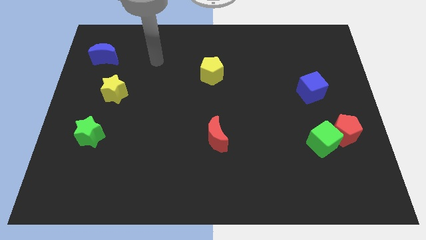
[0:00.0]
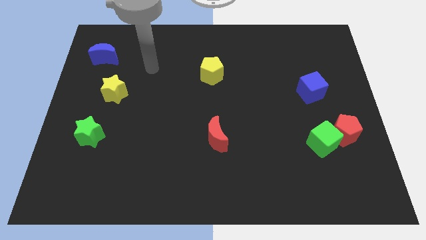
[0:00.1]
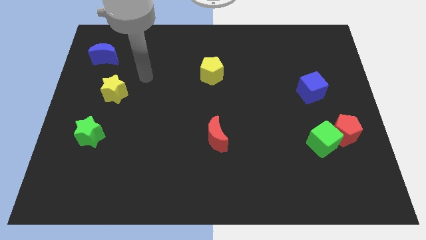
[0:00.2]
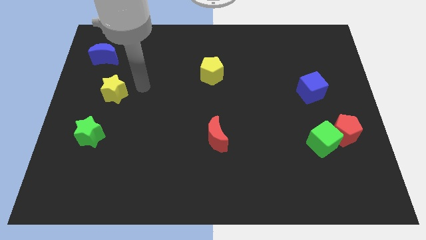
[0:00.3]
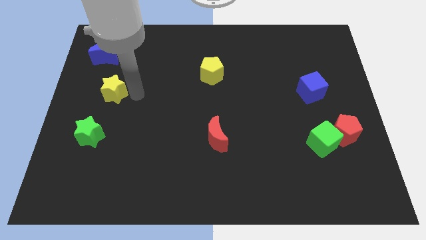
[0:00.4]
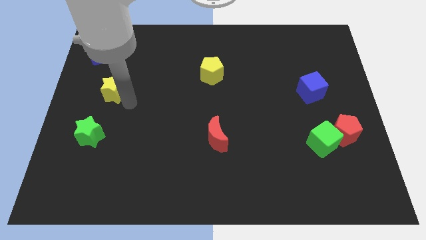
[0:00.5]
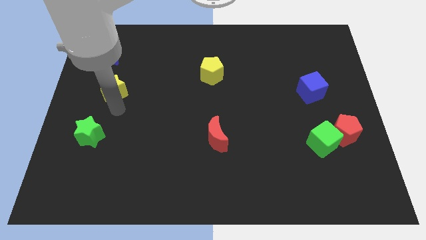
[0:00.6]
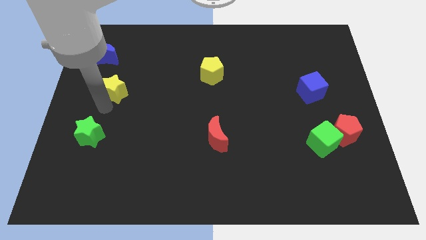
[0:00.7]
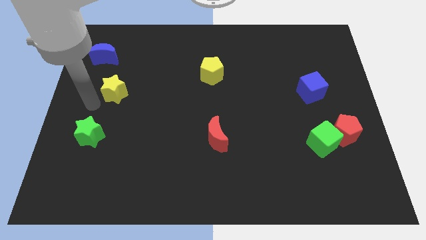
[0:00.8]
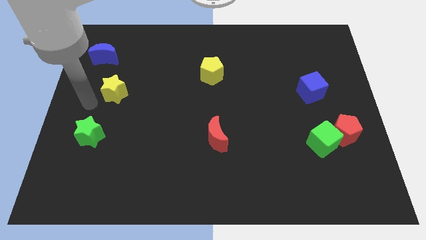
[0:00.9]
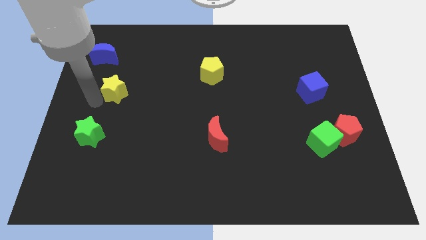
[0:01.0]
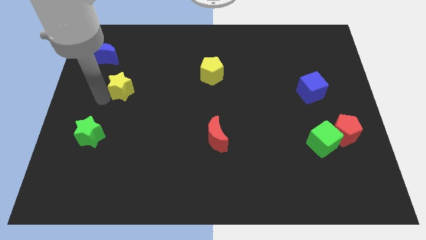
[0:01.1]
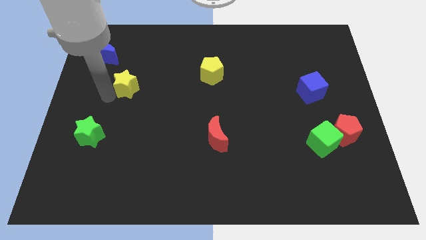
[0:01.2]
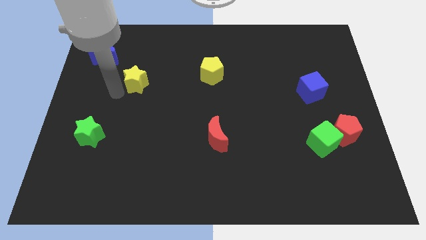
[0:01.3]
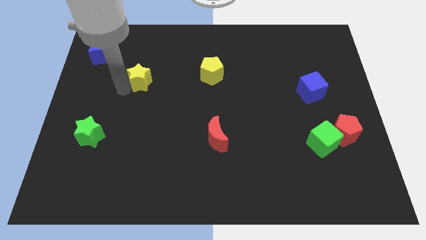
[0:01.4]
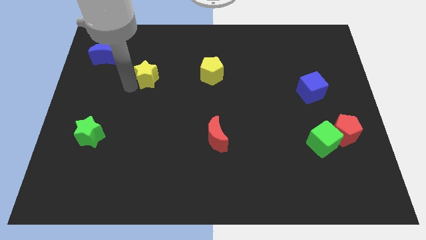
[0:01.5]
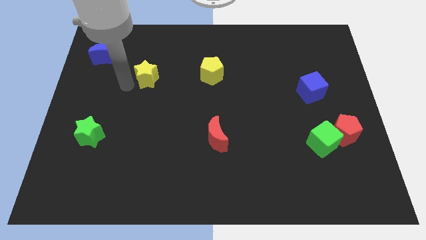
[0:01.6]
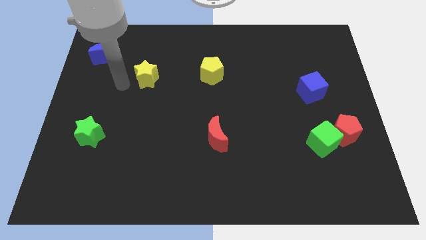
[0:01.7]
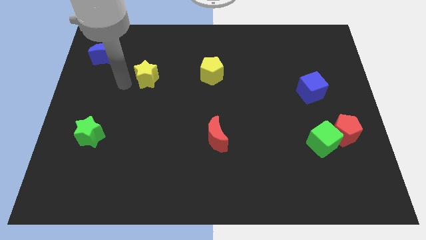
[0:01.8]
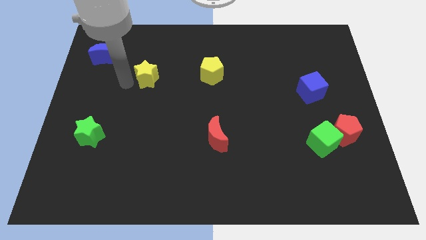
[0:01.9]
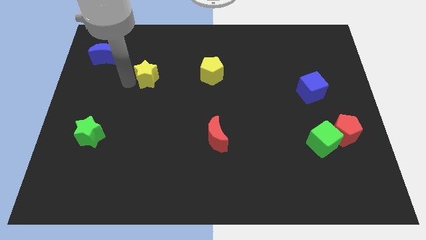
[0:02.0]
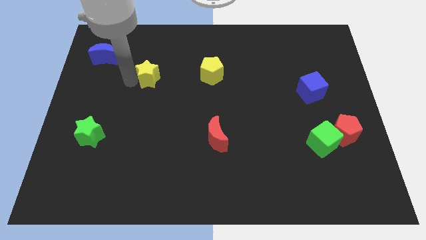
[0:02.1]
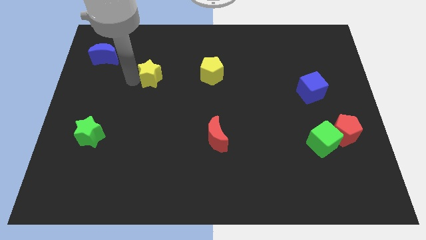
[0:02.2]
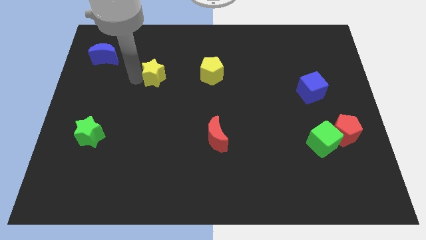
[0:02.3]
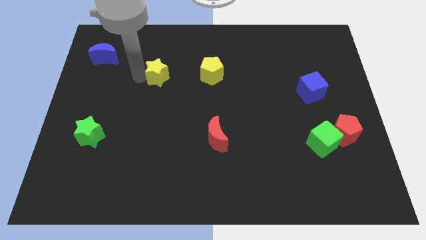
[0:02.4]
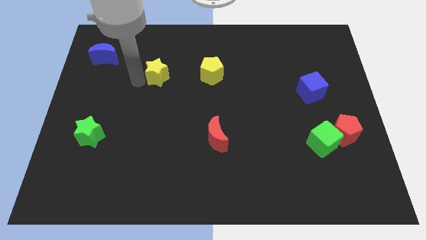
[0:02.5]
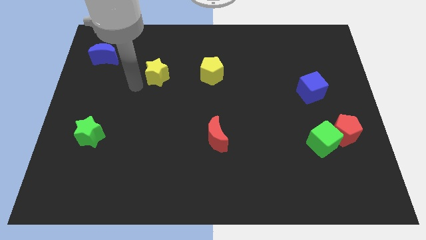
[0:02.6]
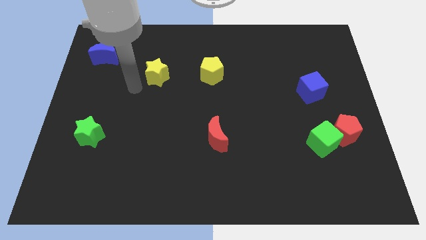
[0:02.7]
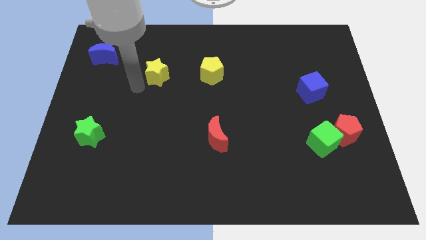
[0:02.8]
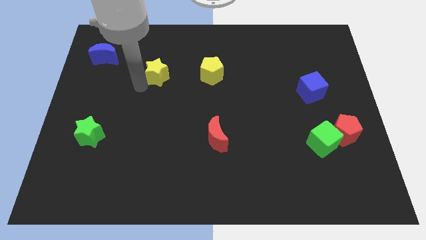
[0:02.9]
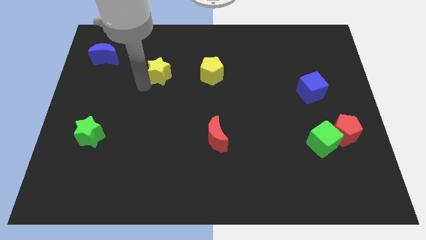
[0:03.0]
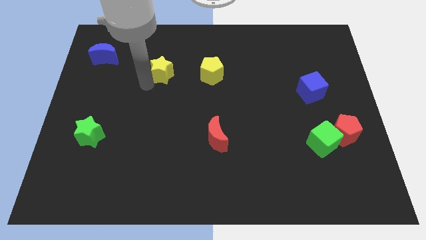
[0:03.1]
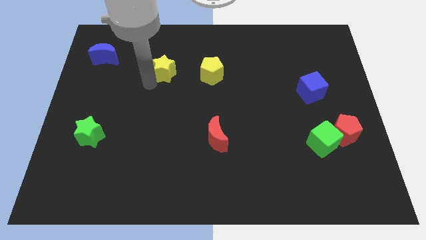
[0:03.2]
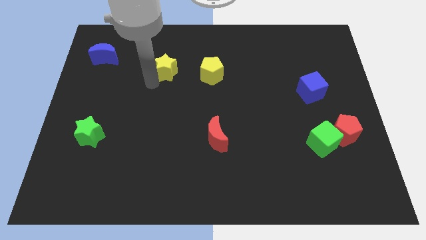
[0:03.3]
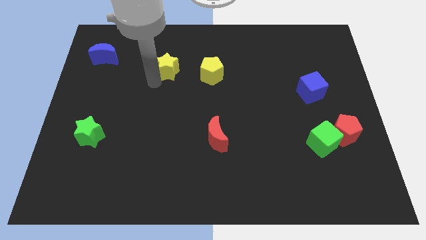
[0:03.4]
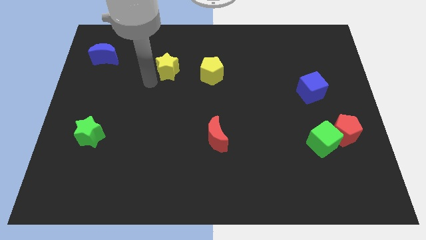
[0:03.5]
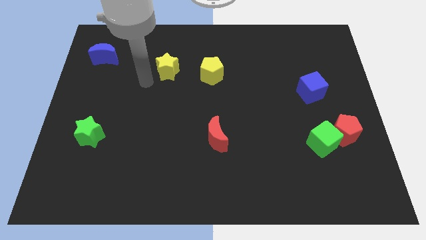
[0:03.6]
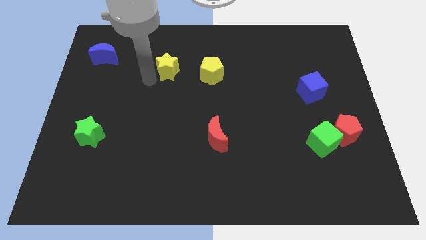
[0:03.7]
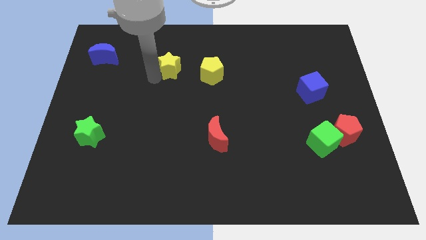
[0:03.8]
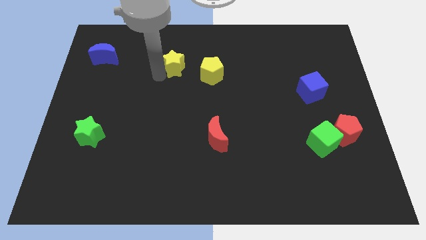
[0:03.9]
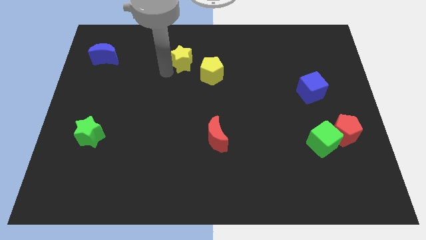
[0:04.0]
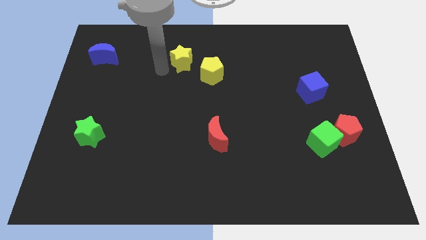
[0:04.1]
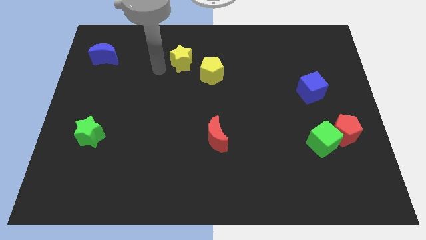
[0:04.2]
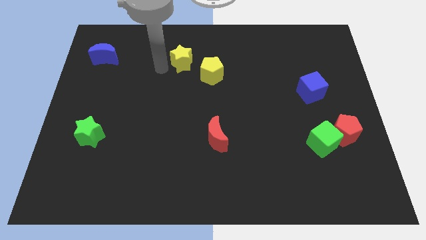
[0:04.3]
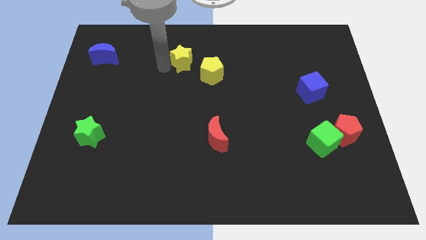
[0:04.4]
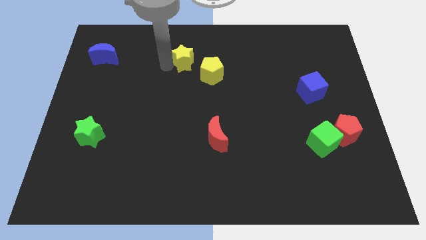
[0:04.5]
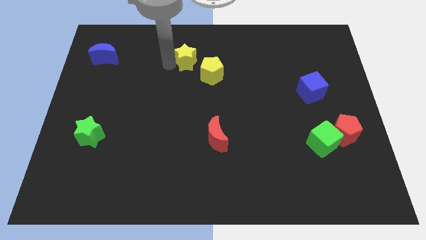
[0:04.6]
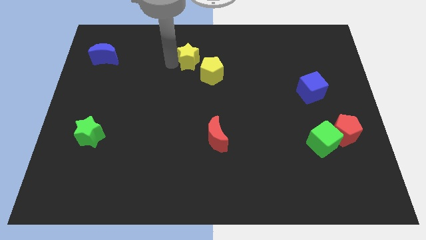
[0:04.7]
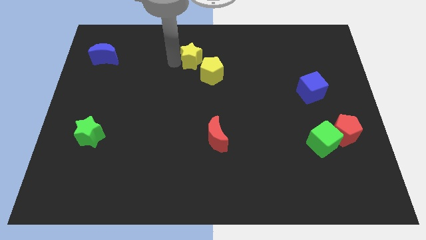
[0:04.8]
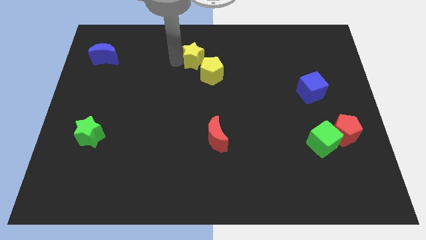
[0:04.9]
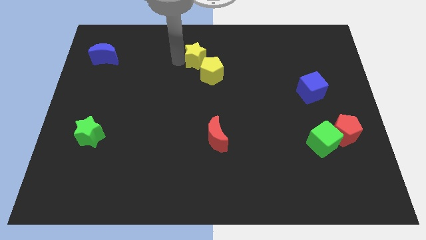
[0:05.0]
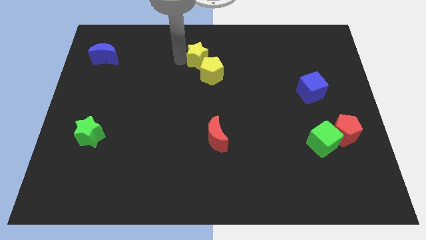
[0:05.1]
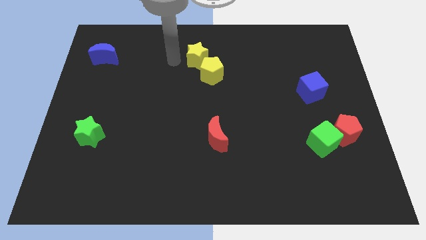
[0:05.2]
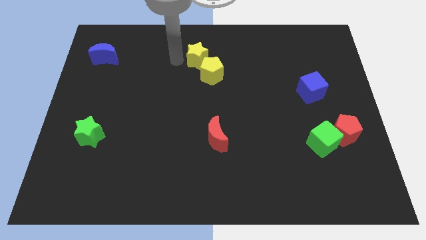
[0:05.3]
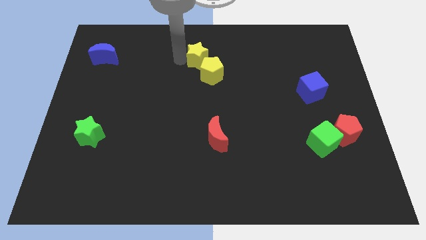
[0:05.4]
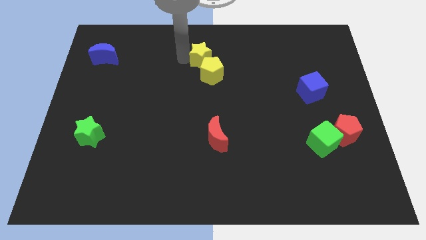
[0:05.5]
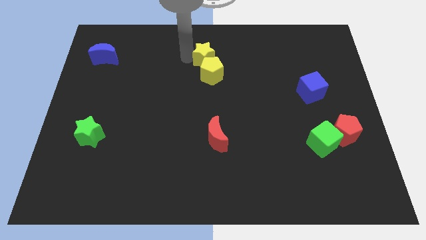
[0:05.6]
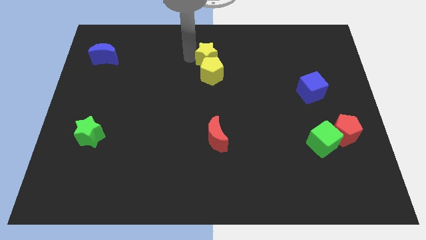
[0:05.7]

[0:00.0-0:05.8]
push the yellow star to the top right side of the yellow pentagon
